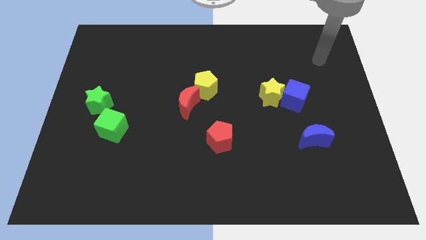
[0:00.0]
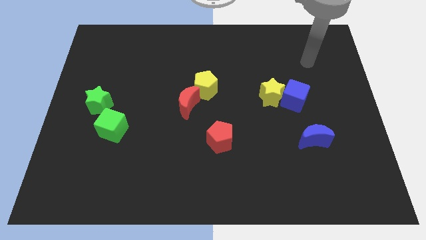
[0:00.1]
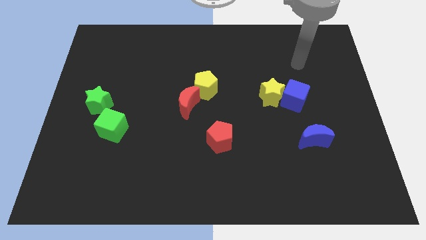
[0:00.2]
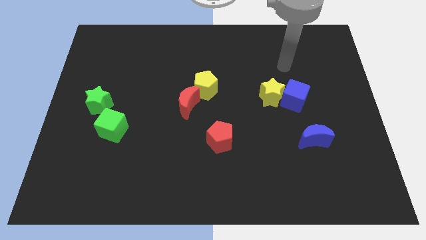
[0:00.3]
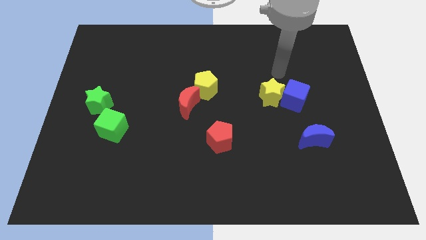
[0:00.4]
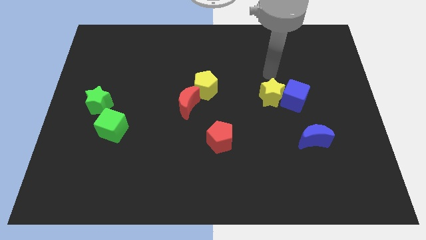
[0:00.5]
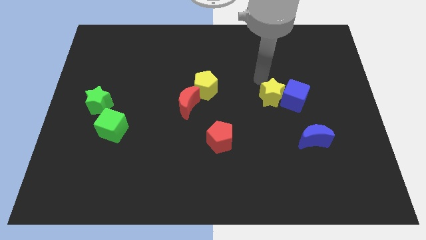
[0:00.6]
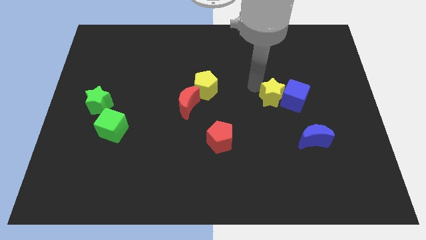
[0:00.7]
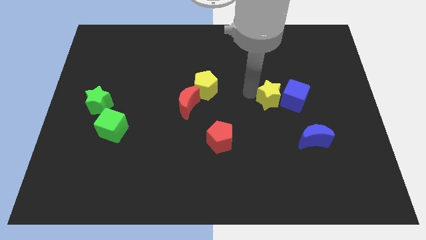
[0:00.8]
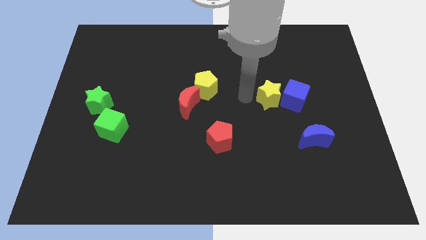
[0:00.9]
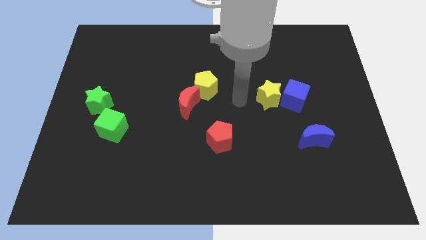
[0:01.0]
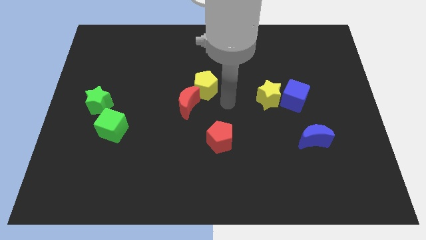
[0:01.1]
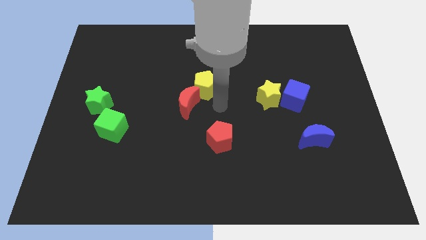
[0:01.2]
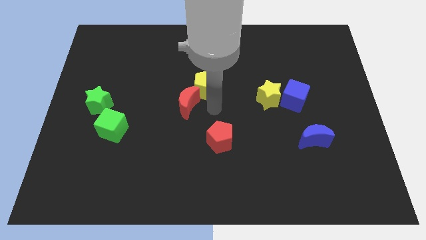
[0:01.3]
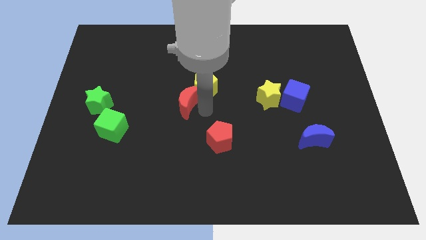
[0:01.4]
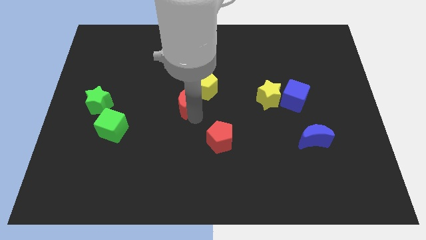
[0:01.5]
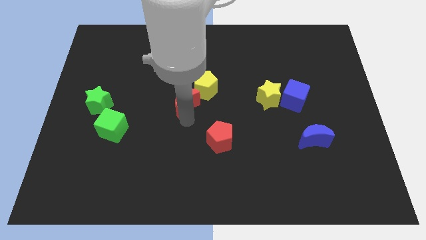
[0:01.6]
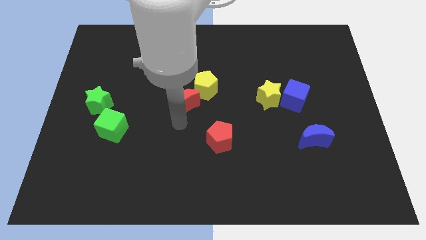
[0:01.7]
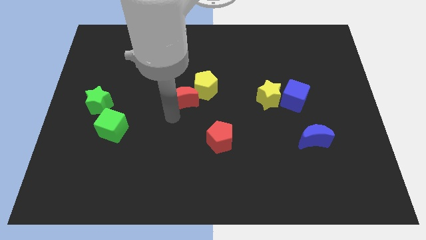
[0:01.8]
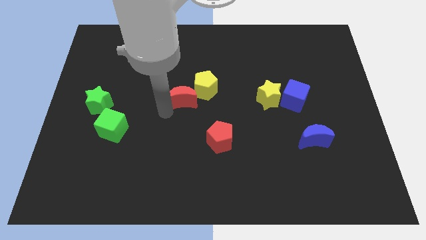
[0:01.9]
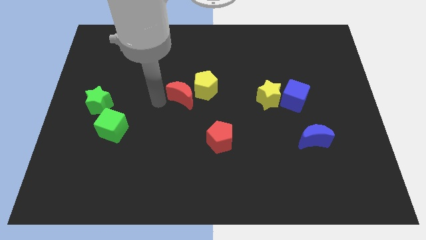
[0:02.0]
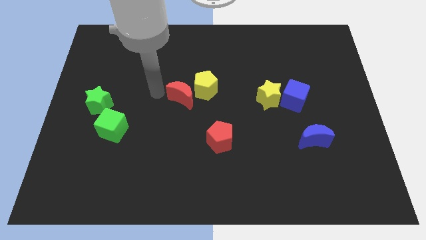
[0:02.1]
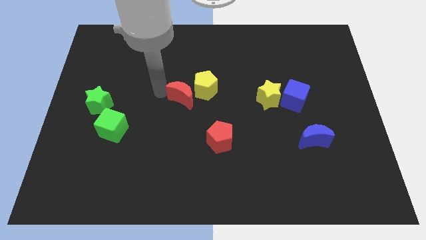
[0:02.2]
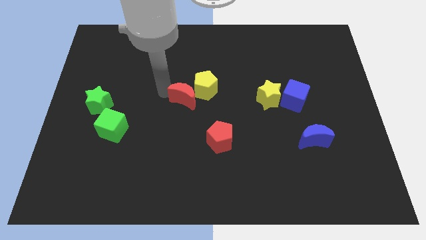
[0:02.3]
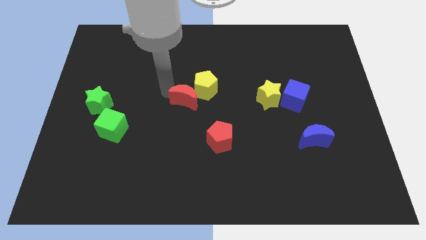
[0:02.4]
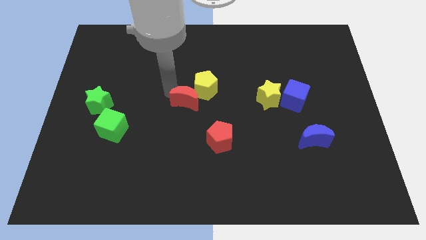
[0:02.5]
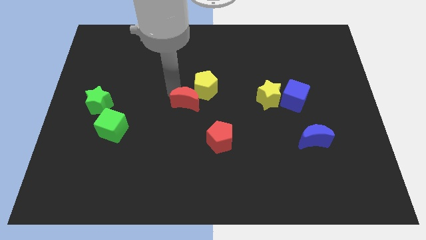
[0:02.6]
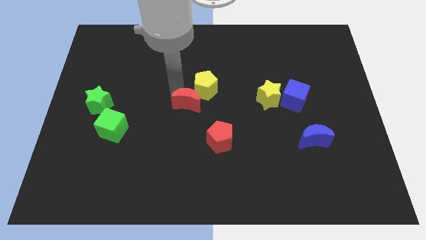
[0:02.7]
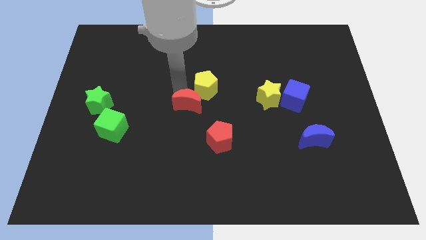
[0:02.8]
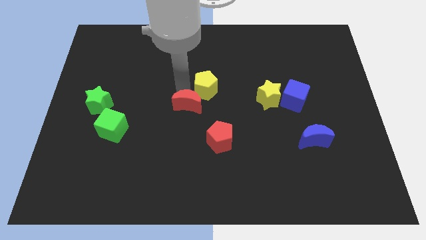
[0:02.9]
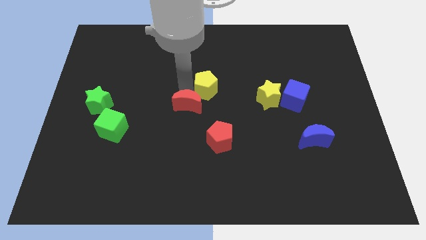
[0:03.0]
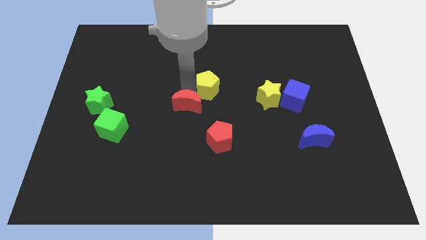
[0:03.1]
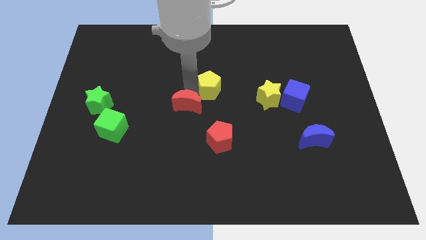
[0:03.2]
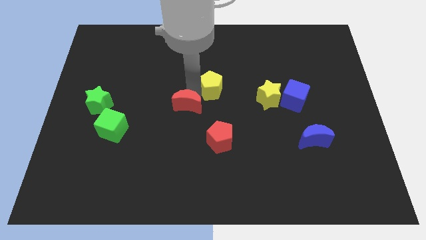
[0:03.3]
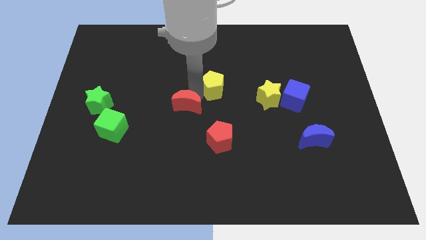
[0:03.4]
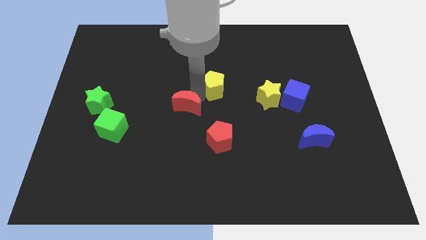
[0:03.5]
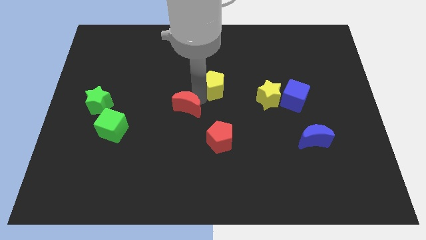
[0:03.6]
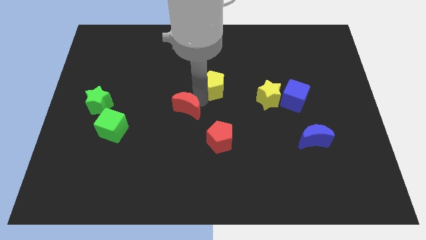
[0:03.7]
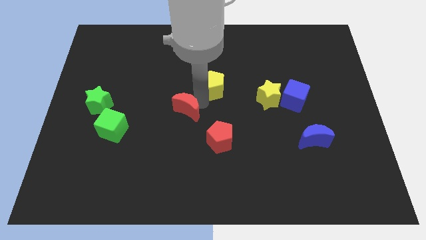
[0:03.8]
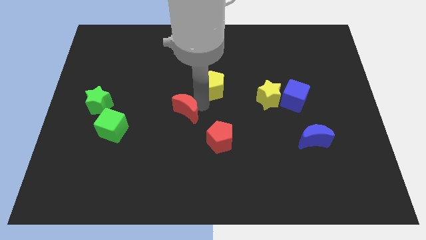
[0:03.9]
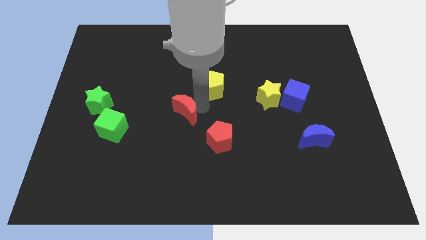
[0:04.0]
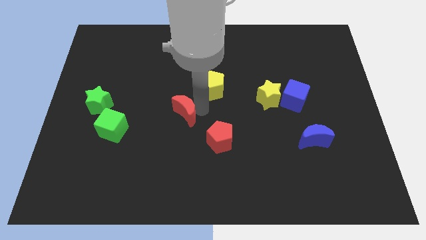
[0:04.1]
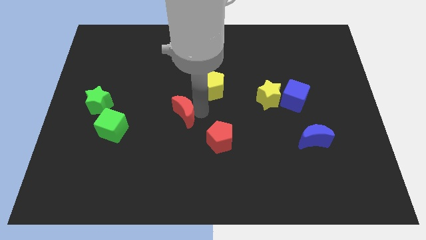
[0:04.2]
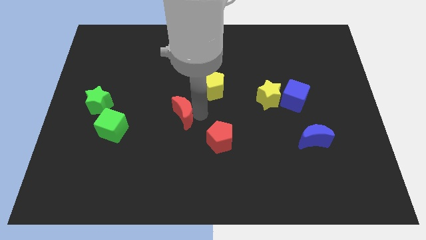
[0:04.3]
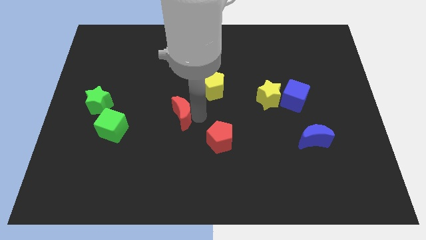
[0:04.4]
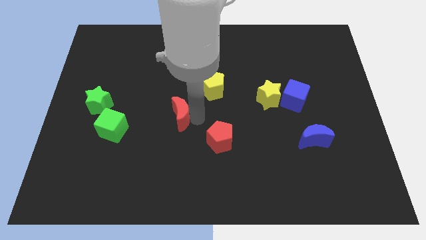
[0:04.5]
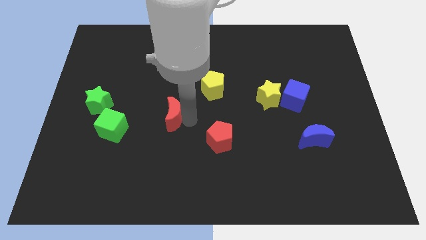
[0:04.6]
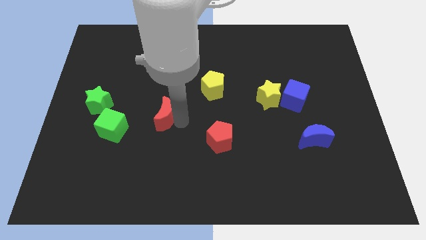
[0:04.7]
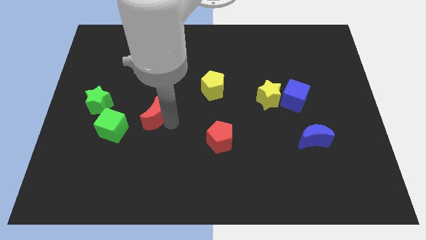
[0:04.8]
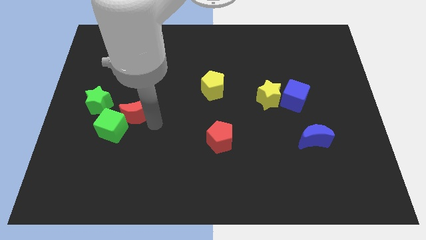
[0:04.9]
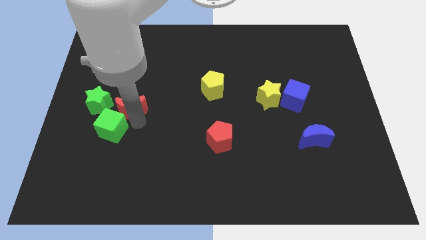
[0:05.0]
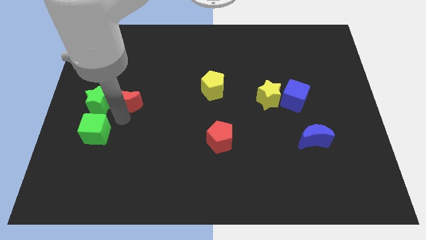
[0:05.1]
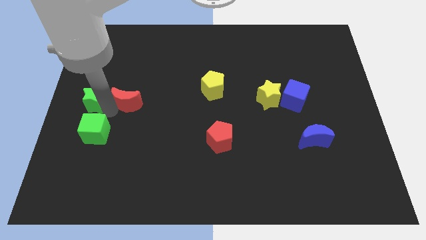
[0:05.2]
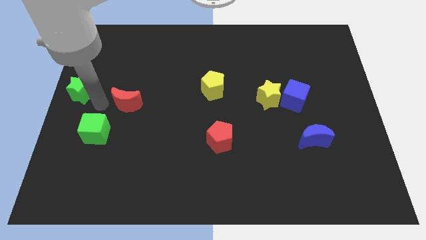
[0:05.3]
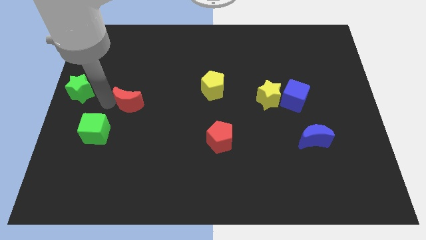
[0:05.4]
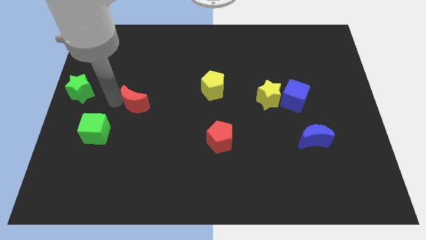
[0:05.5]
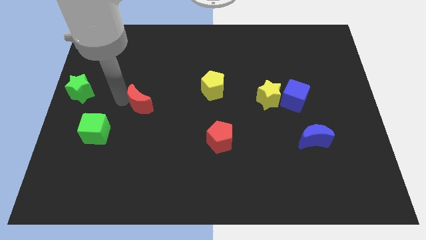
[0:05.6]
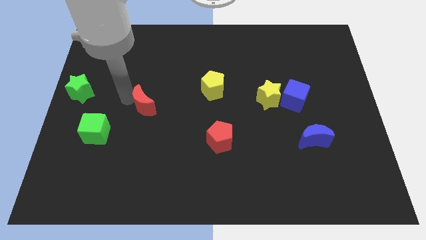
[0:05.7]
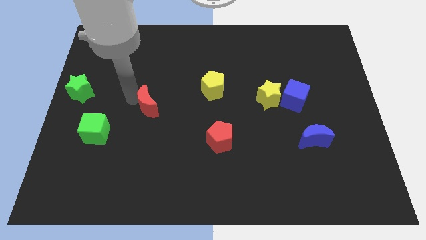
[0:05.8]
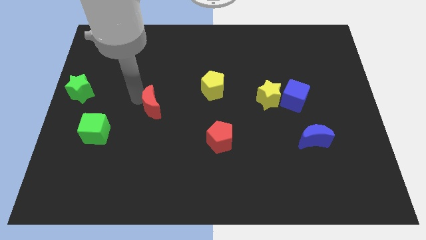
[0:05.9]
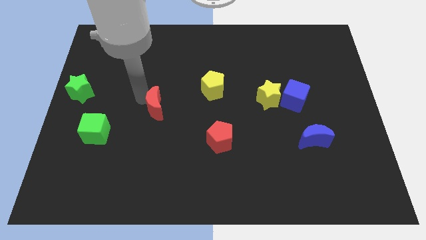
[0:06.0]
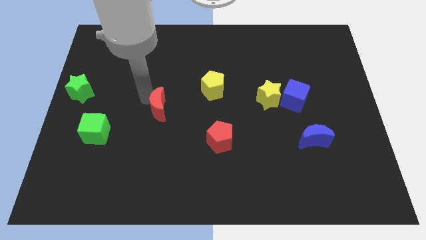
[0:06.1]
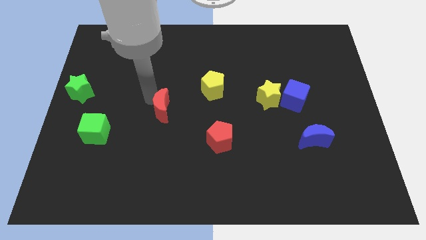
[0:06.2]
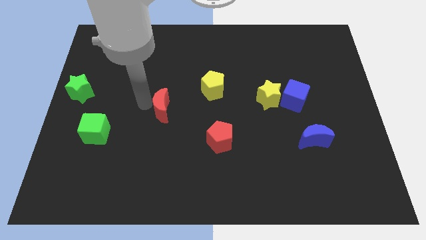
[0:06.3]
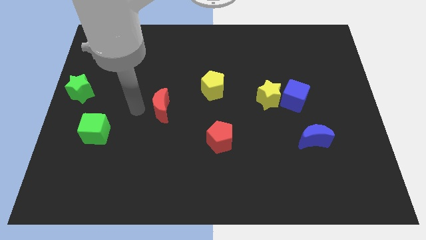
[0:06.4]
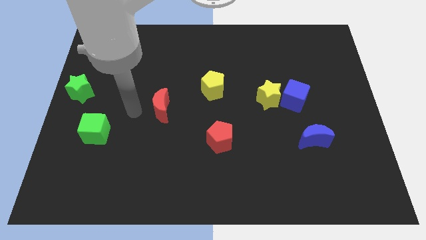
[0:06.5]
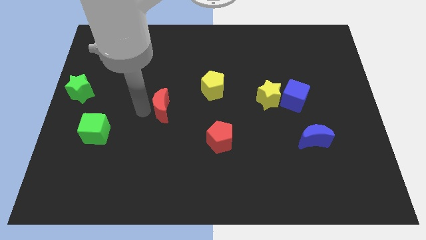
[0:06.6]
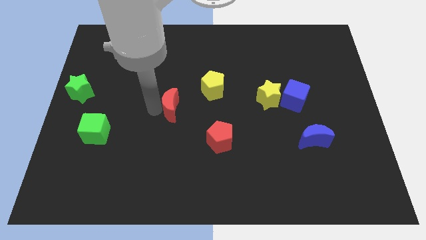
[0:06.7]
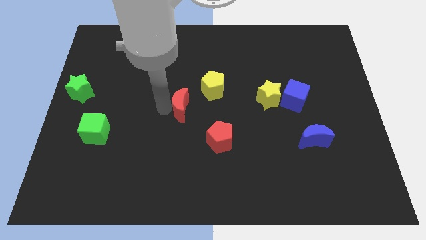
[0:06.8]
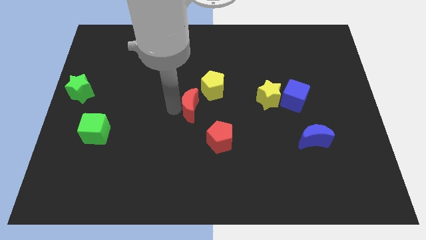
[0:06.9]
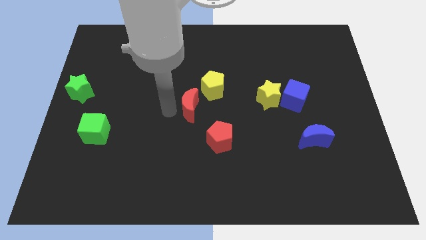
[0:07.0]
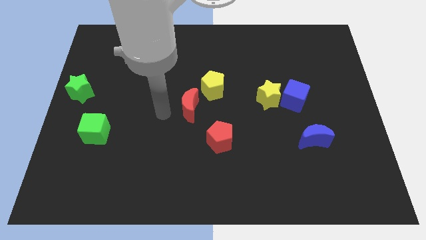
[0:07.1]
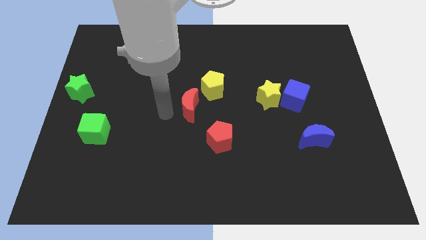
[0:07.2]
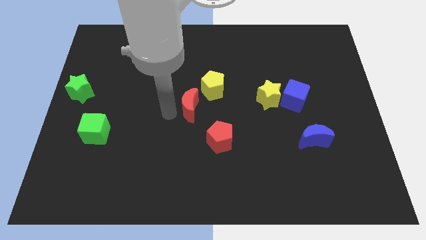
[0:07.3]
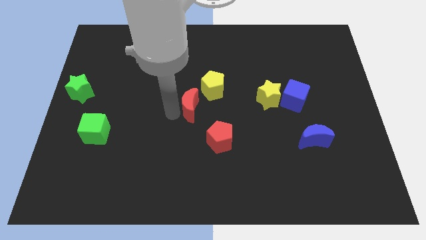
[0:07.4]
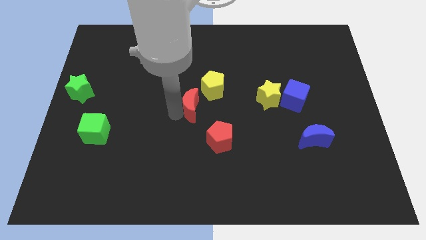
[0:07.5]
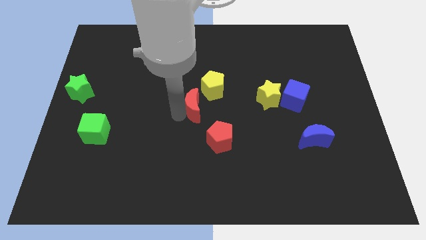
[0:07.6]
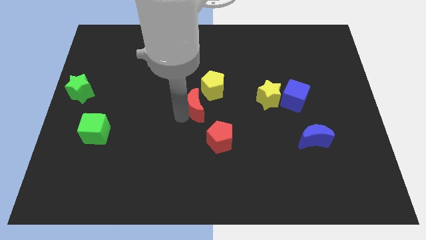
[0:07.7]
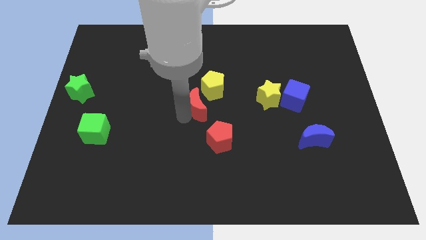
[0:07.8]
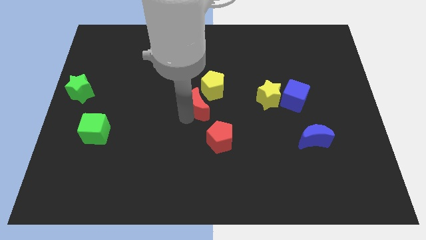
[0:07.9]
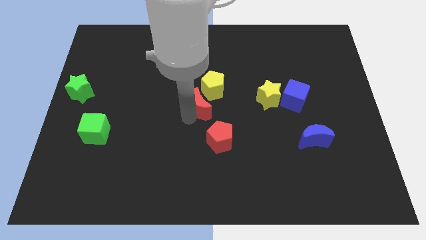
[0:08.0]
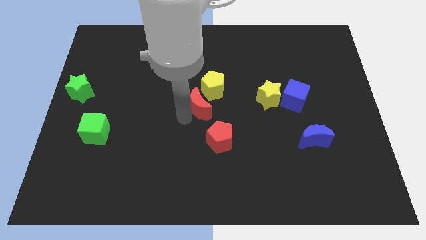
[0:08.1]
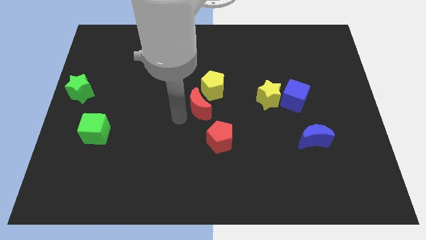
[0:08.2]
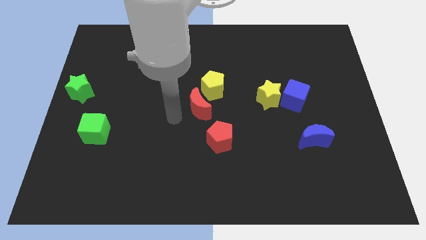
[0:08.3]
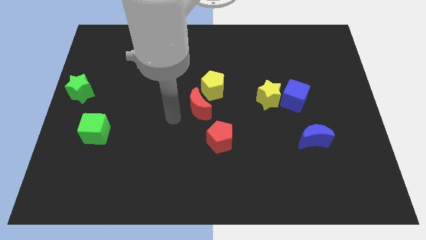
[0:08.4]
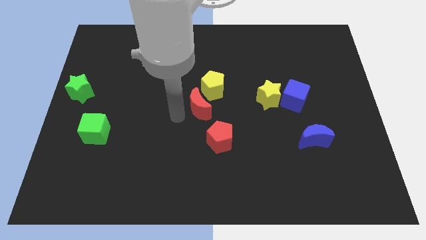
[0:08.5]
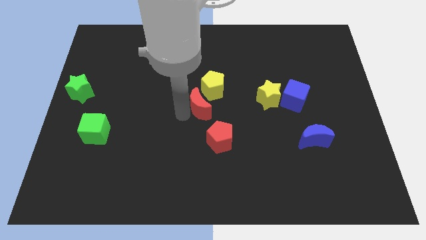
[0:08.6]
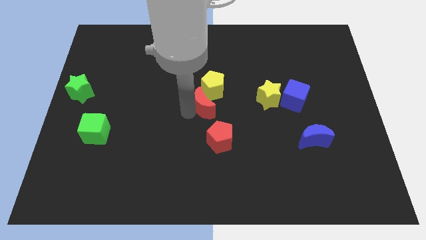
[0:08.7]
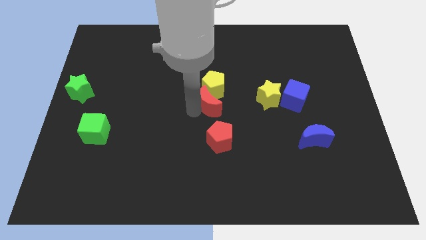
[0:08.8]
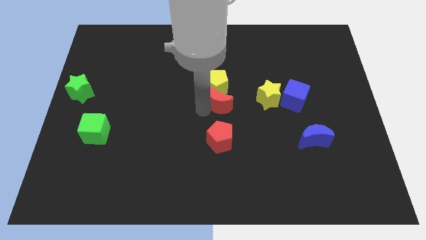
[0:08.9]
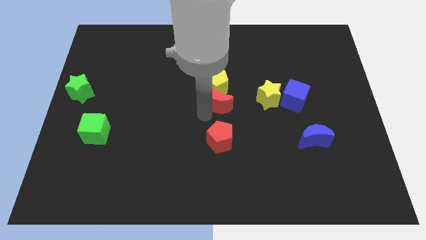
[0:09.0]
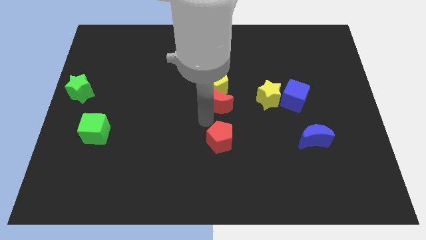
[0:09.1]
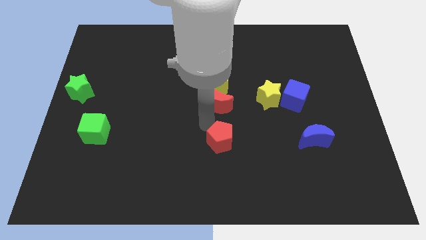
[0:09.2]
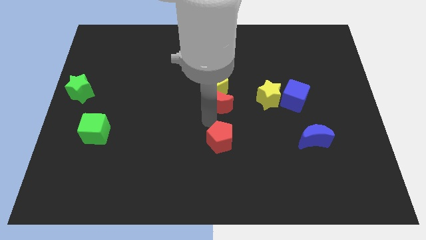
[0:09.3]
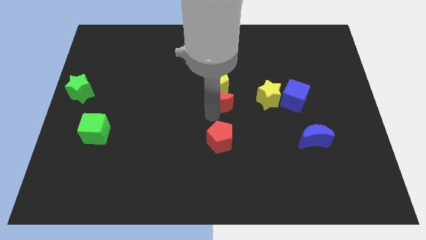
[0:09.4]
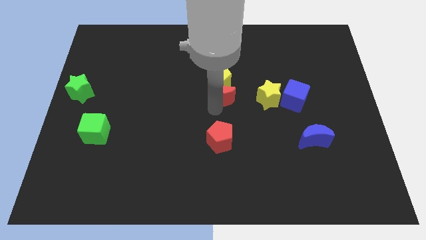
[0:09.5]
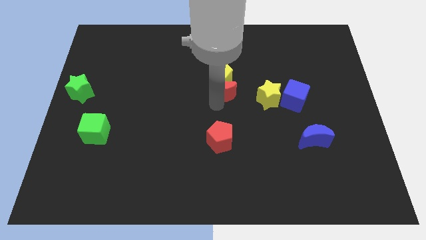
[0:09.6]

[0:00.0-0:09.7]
slightly push the red moon upwards and to the right
